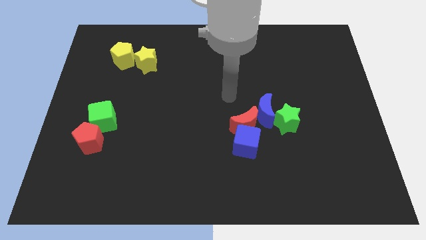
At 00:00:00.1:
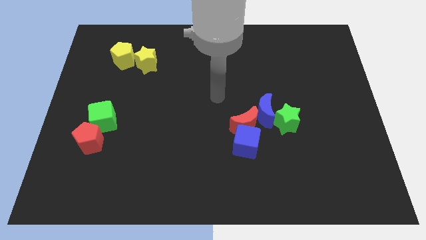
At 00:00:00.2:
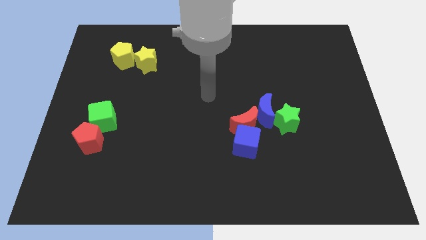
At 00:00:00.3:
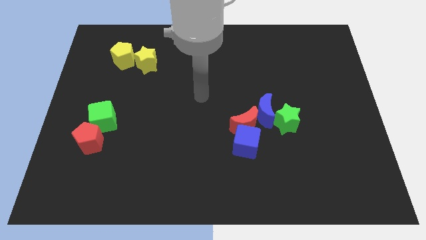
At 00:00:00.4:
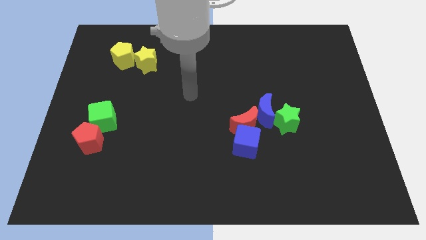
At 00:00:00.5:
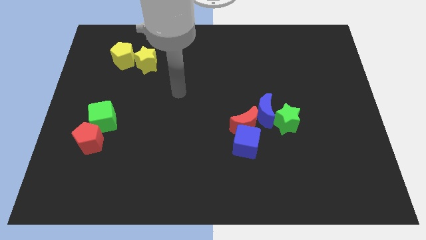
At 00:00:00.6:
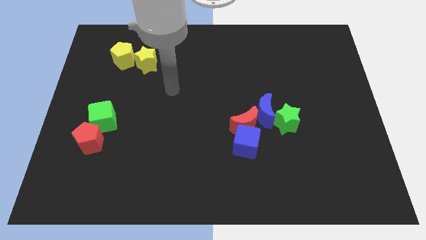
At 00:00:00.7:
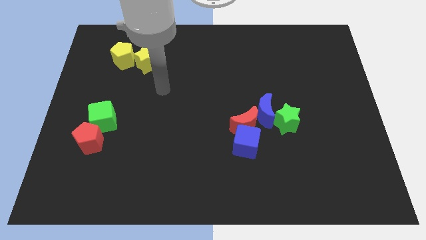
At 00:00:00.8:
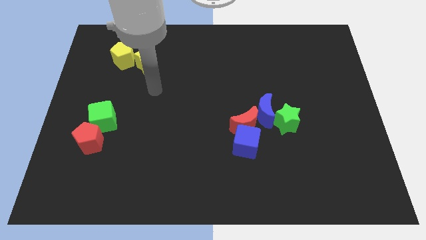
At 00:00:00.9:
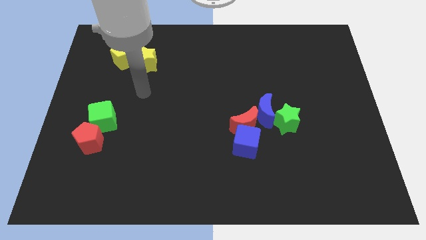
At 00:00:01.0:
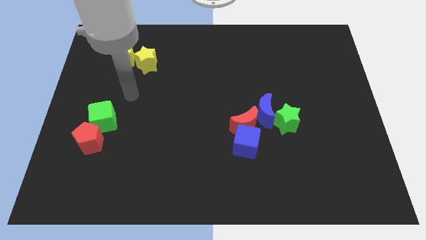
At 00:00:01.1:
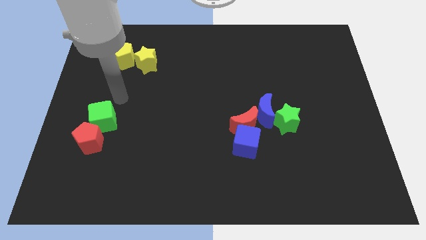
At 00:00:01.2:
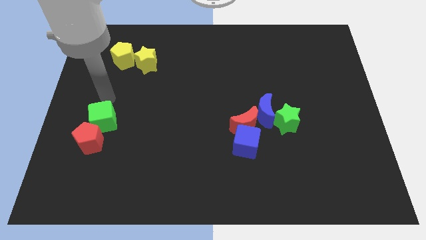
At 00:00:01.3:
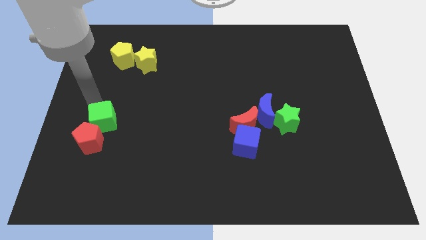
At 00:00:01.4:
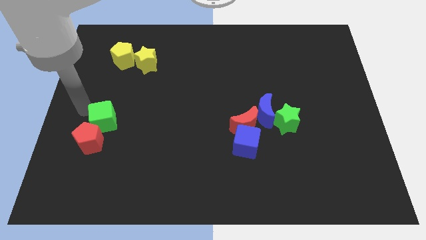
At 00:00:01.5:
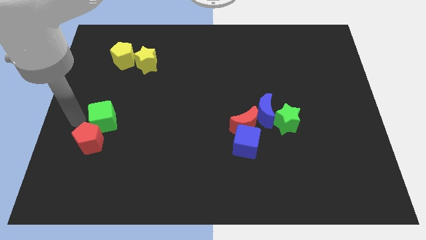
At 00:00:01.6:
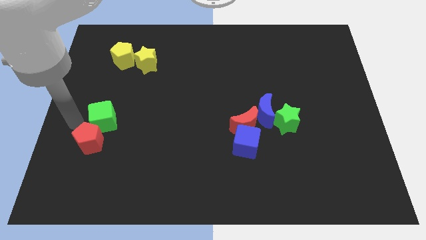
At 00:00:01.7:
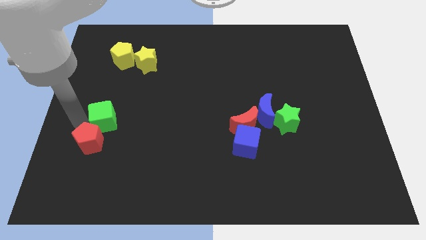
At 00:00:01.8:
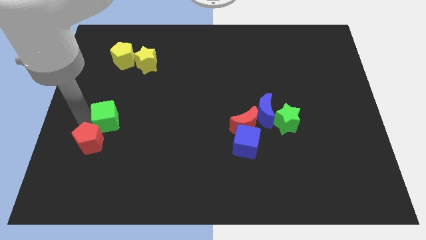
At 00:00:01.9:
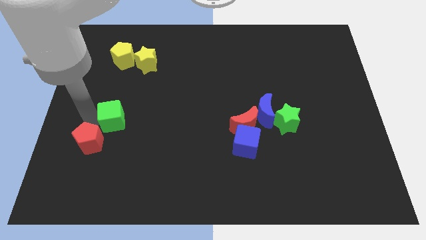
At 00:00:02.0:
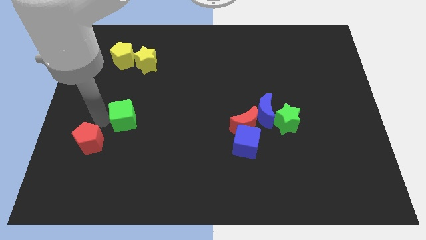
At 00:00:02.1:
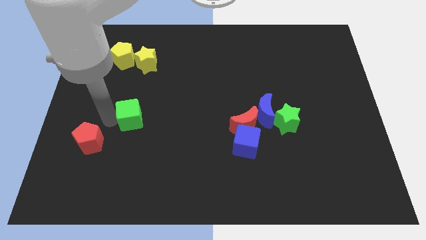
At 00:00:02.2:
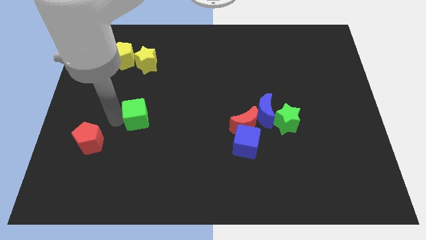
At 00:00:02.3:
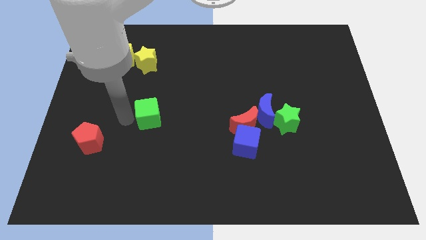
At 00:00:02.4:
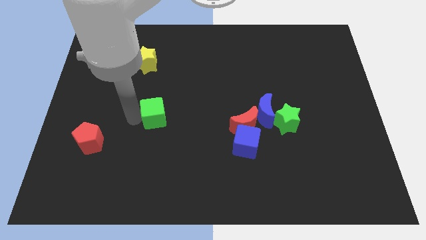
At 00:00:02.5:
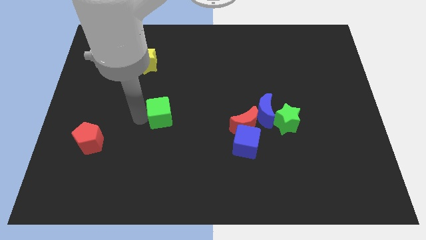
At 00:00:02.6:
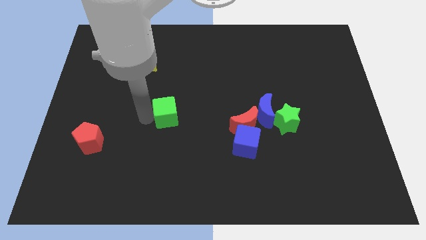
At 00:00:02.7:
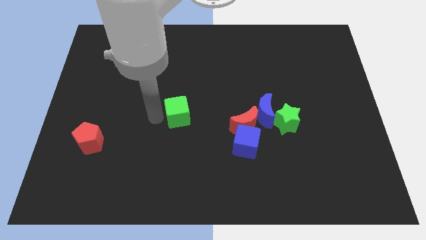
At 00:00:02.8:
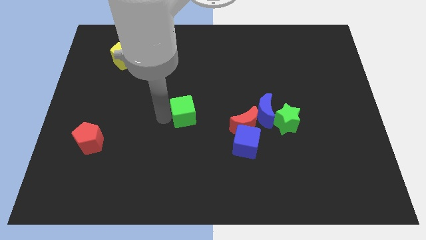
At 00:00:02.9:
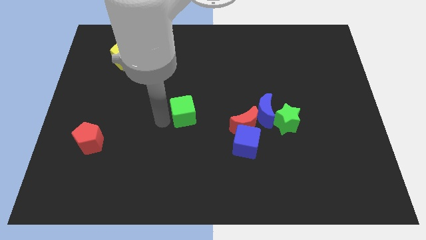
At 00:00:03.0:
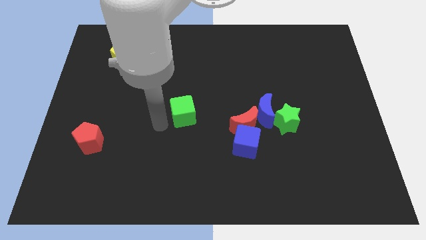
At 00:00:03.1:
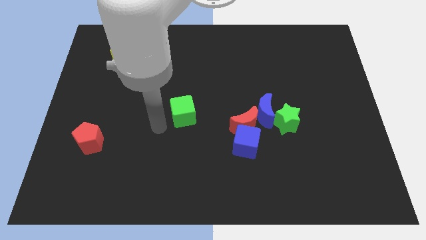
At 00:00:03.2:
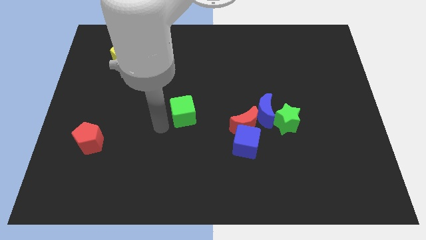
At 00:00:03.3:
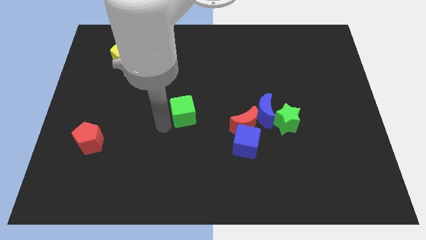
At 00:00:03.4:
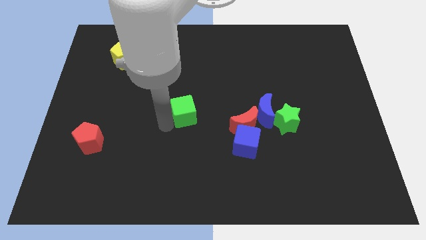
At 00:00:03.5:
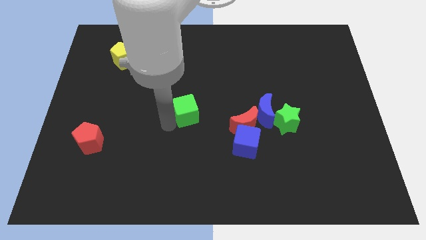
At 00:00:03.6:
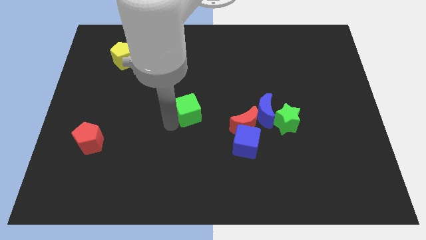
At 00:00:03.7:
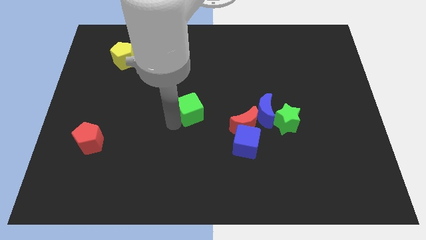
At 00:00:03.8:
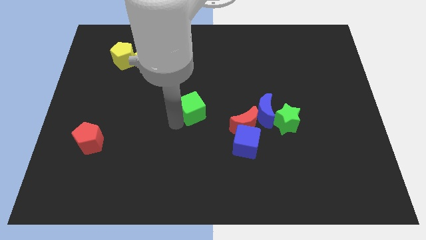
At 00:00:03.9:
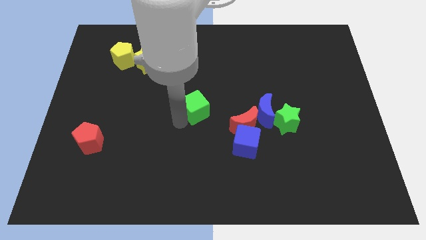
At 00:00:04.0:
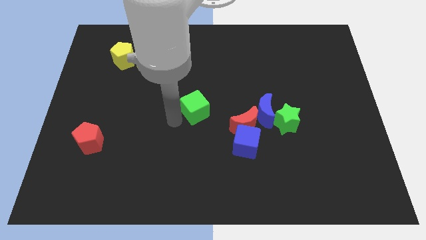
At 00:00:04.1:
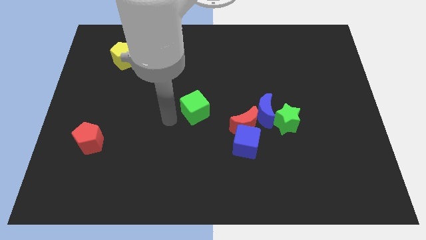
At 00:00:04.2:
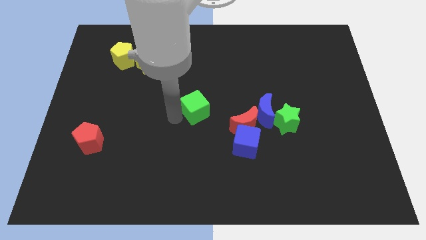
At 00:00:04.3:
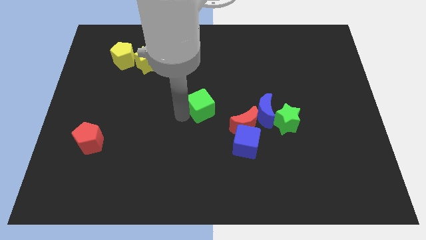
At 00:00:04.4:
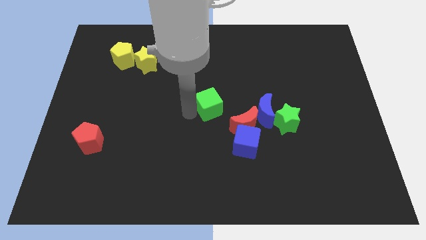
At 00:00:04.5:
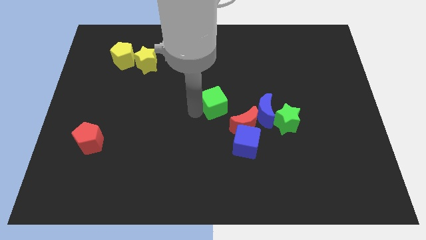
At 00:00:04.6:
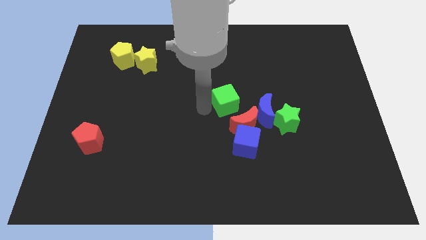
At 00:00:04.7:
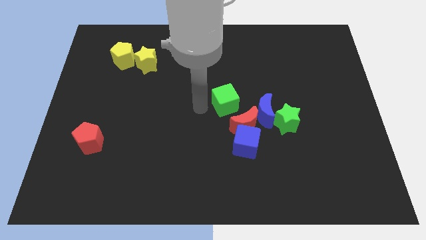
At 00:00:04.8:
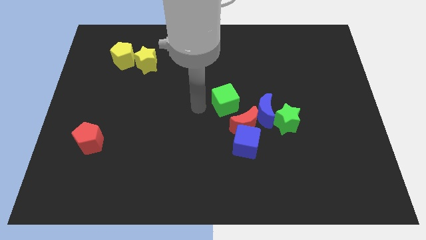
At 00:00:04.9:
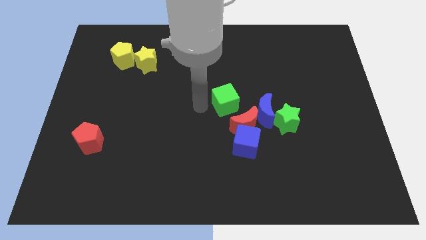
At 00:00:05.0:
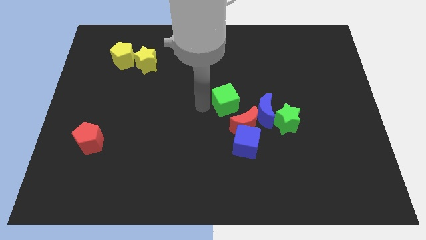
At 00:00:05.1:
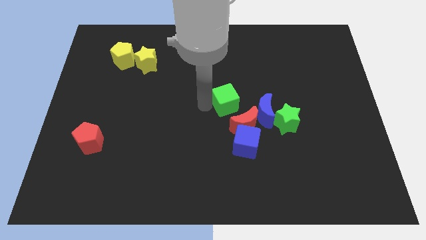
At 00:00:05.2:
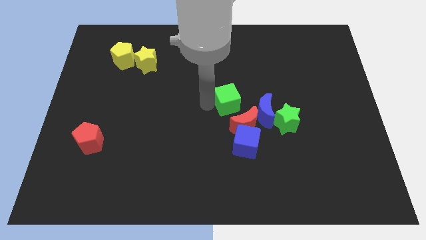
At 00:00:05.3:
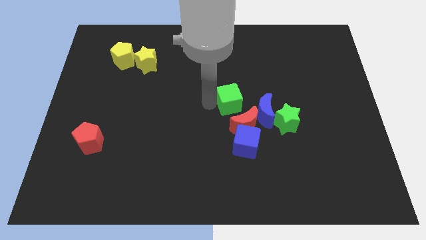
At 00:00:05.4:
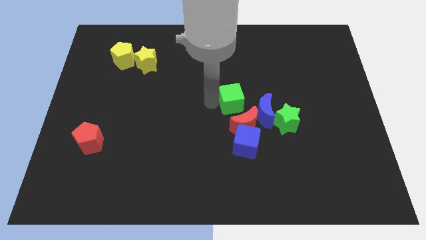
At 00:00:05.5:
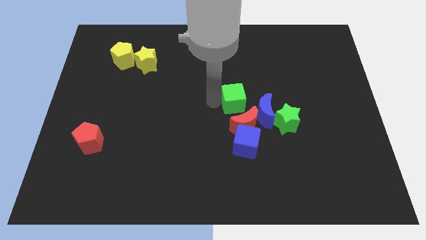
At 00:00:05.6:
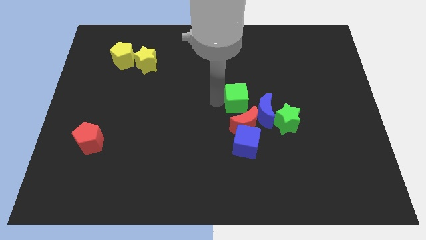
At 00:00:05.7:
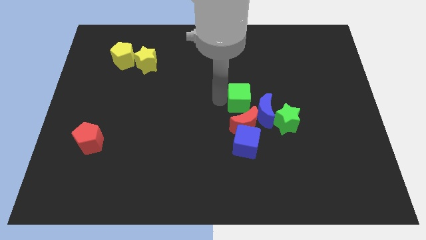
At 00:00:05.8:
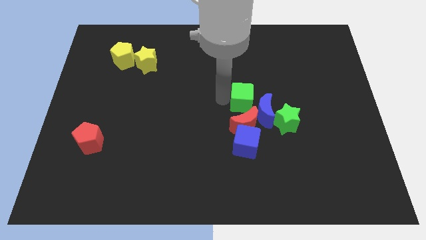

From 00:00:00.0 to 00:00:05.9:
put the green cube to the top left of the green star

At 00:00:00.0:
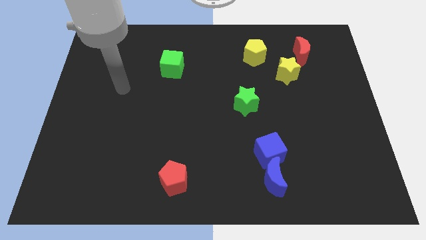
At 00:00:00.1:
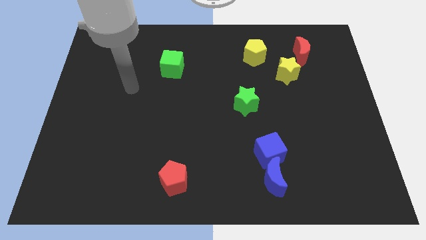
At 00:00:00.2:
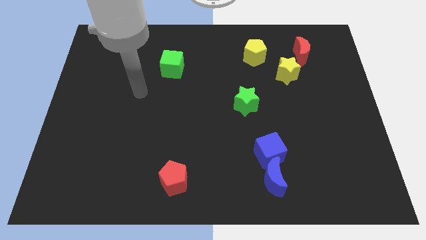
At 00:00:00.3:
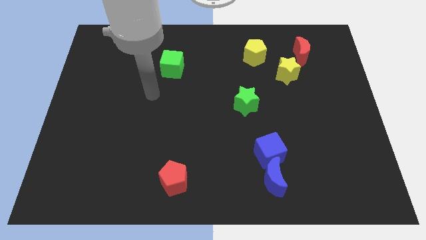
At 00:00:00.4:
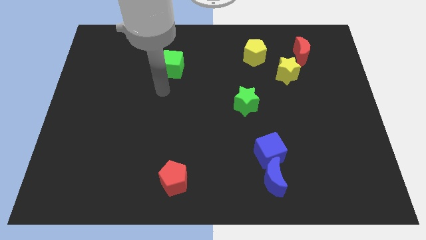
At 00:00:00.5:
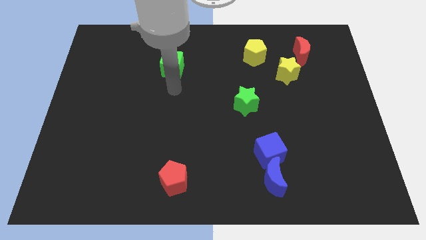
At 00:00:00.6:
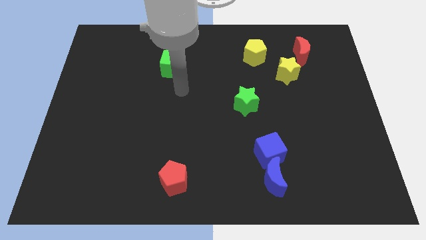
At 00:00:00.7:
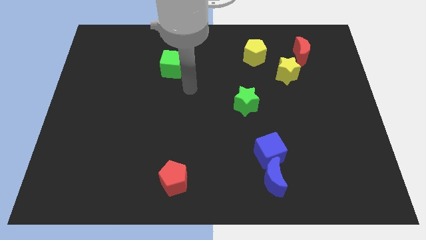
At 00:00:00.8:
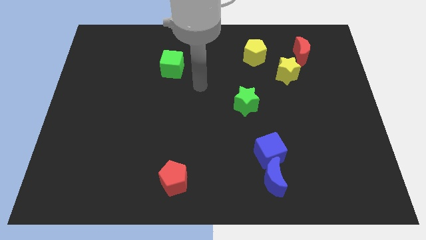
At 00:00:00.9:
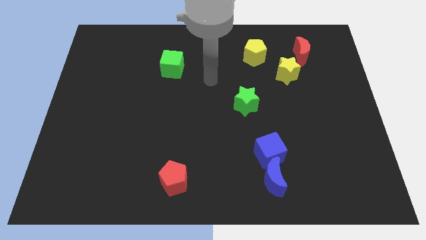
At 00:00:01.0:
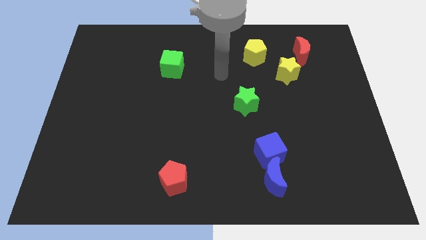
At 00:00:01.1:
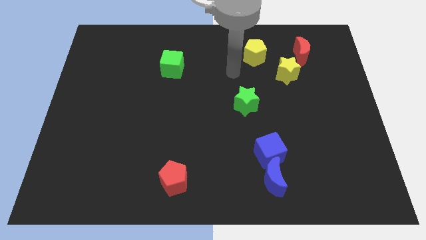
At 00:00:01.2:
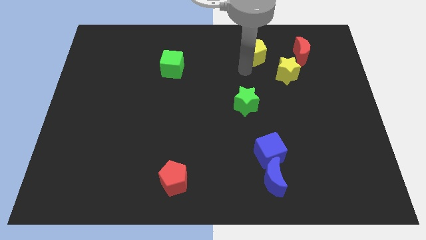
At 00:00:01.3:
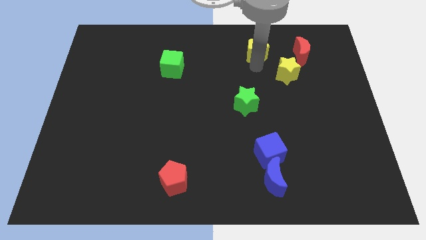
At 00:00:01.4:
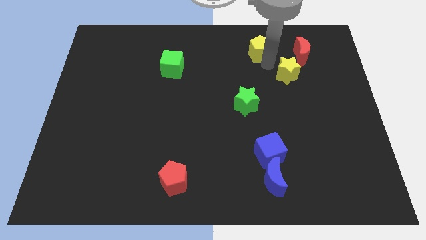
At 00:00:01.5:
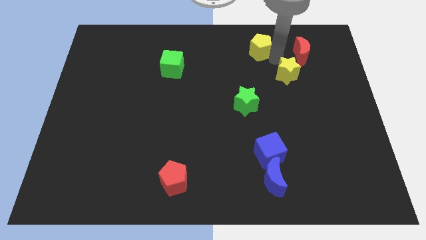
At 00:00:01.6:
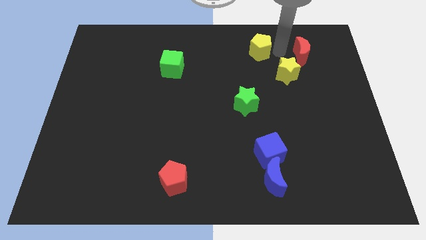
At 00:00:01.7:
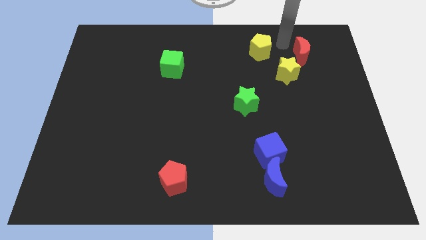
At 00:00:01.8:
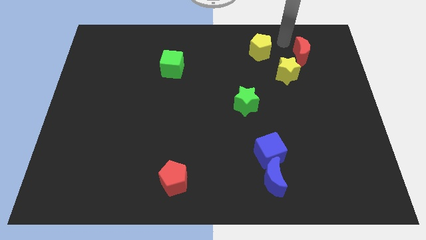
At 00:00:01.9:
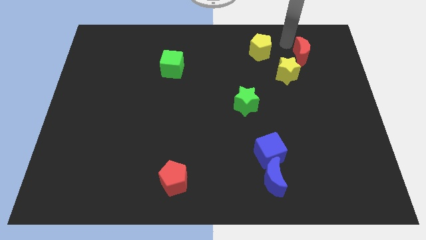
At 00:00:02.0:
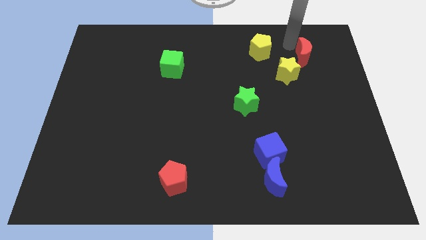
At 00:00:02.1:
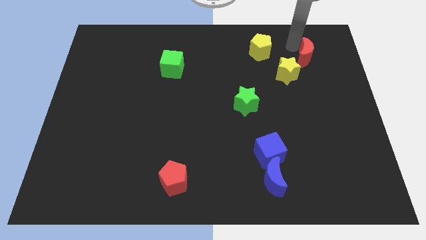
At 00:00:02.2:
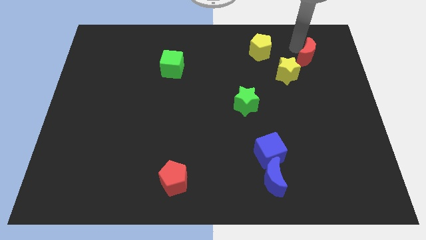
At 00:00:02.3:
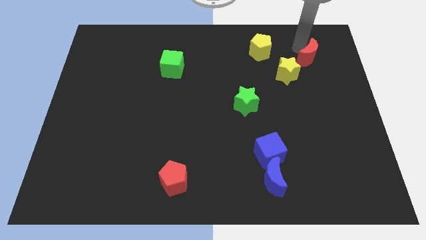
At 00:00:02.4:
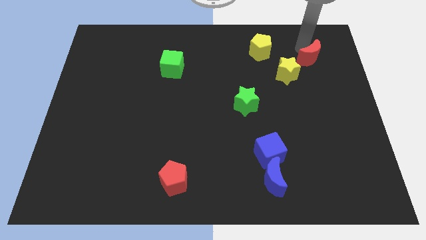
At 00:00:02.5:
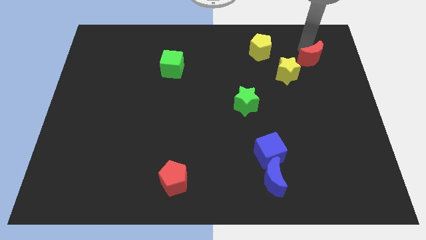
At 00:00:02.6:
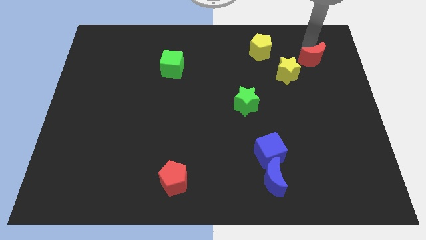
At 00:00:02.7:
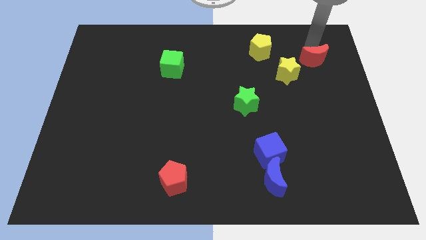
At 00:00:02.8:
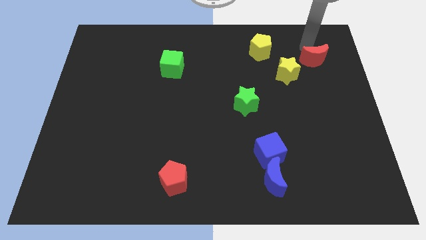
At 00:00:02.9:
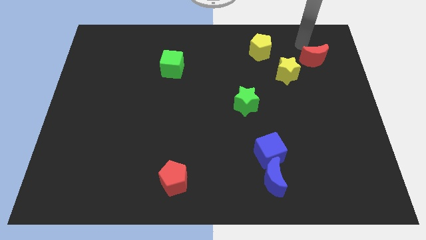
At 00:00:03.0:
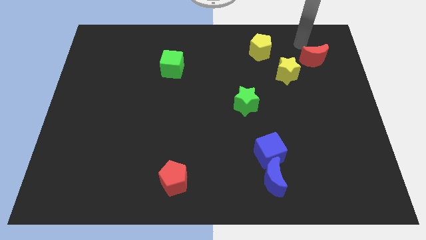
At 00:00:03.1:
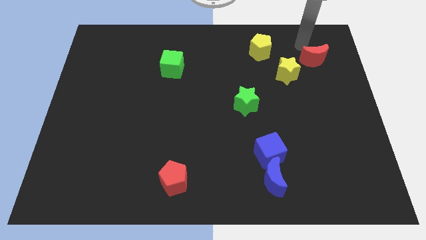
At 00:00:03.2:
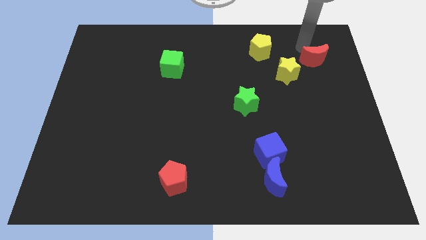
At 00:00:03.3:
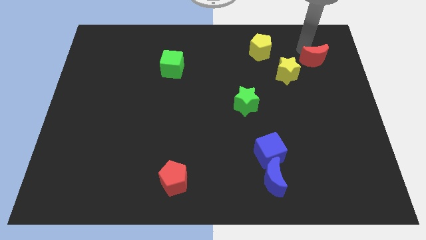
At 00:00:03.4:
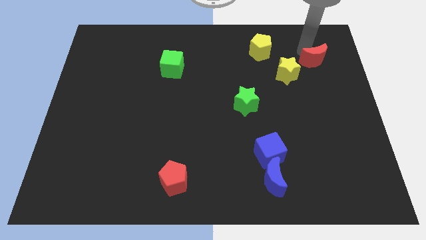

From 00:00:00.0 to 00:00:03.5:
put the red moon to the right side of the yellow star
